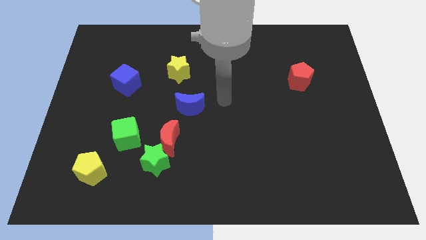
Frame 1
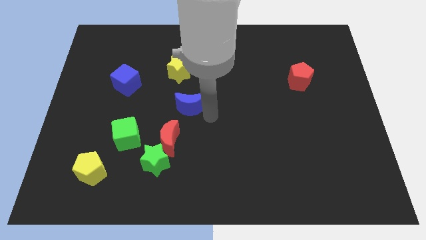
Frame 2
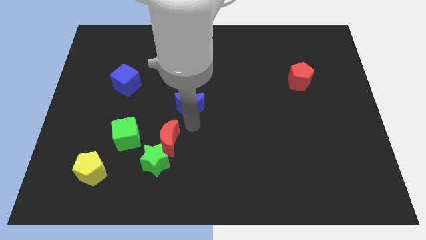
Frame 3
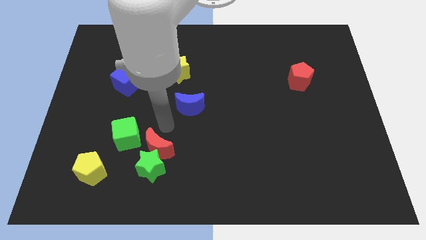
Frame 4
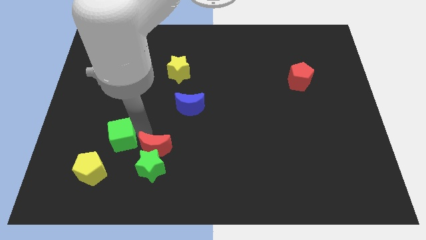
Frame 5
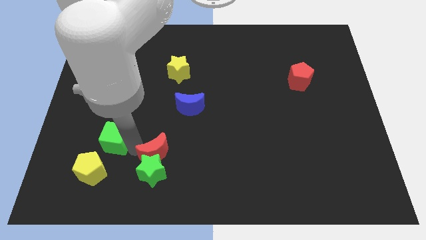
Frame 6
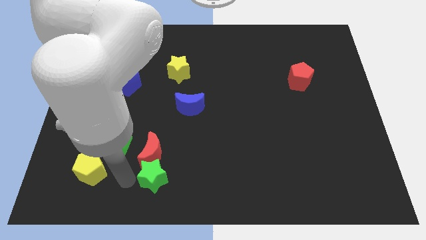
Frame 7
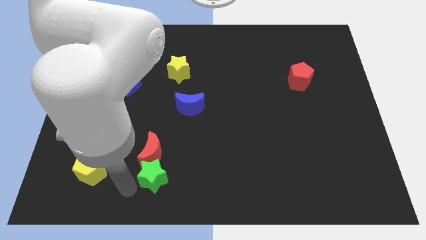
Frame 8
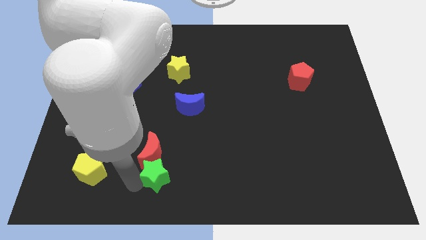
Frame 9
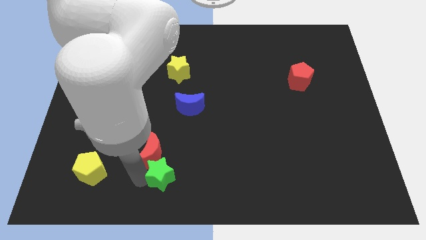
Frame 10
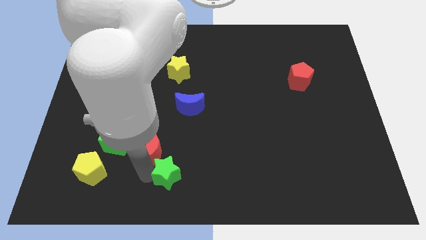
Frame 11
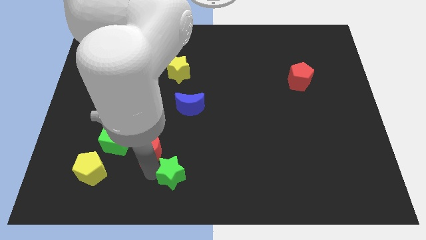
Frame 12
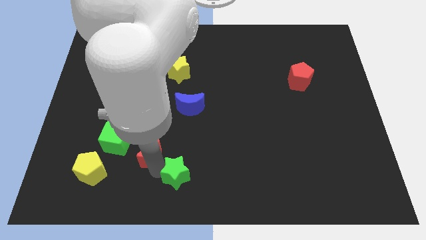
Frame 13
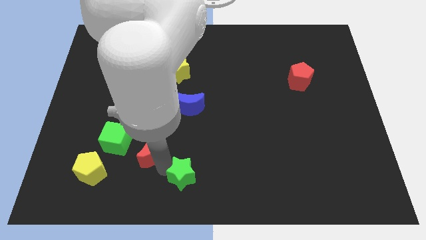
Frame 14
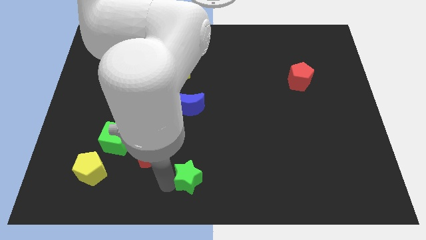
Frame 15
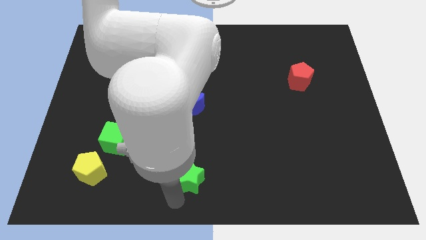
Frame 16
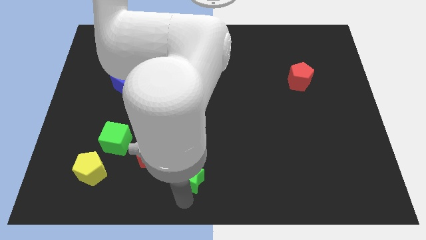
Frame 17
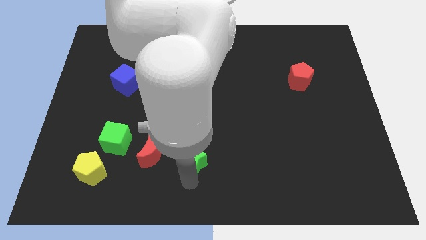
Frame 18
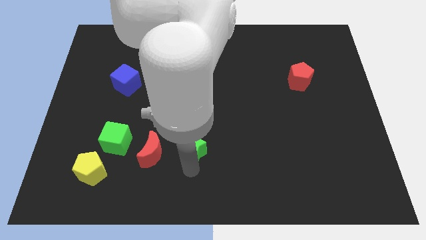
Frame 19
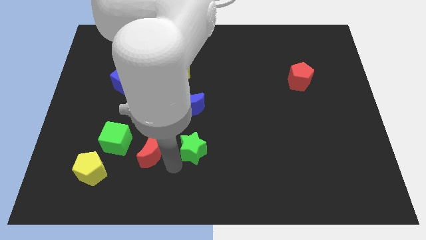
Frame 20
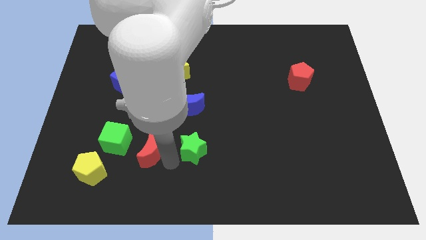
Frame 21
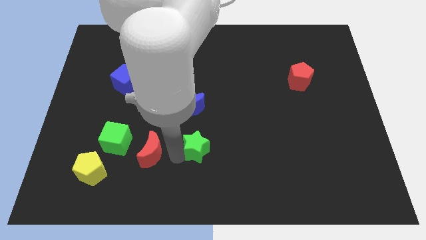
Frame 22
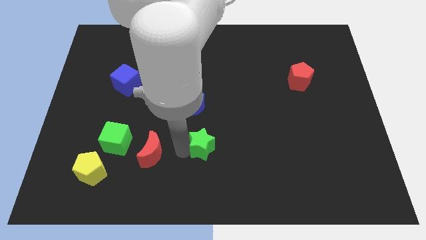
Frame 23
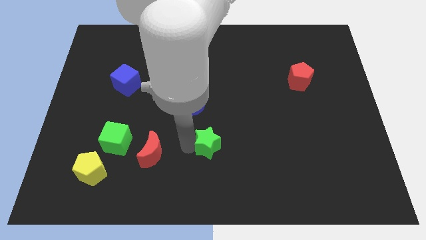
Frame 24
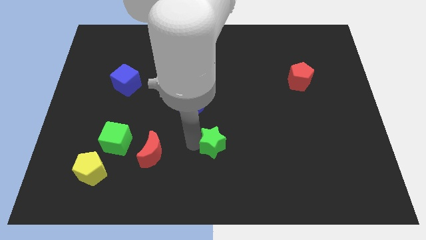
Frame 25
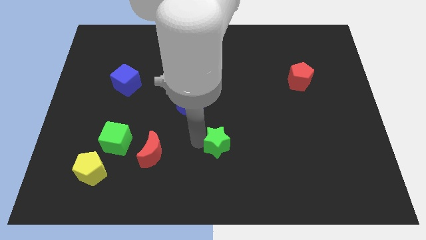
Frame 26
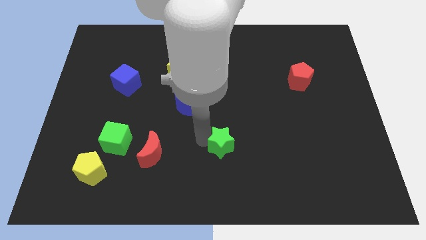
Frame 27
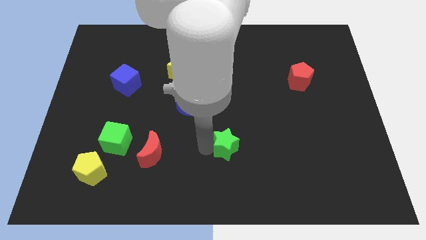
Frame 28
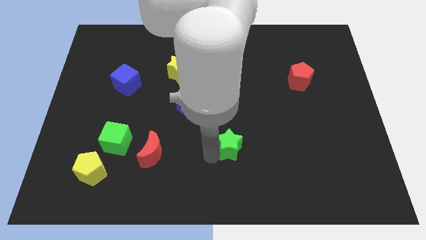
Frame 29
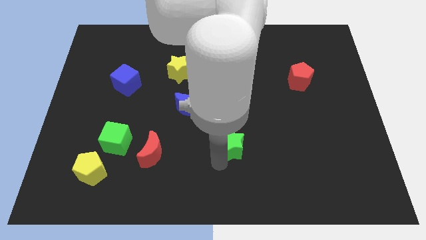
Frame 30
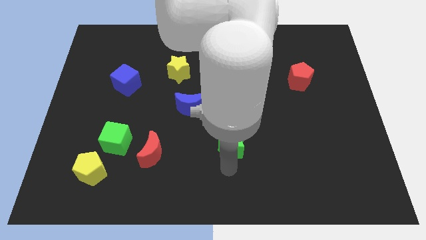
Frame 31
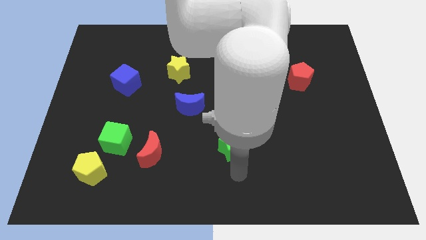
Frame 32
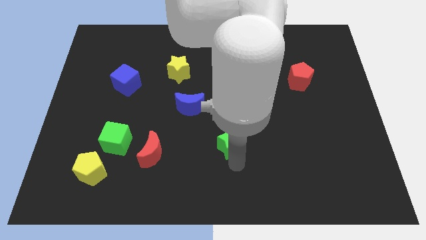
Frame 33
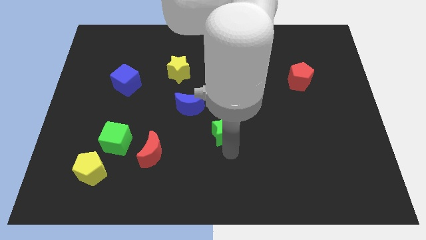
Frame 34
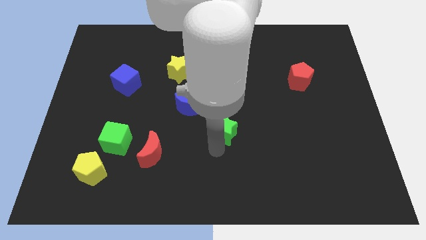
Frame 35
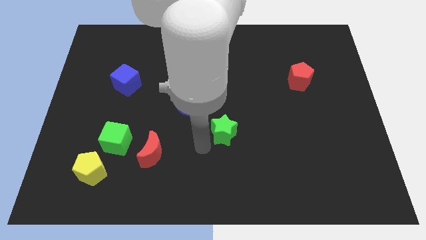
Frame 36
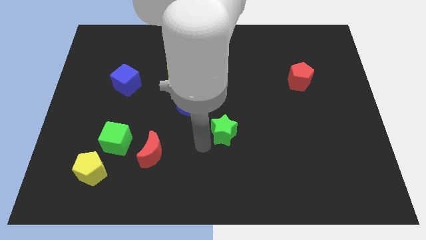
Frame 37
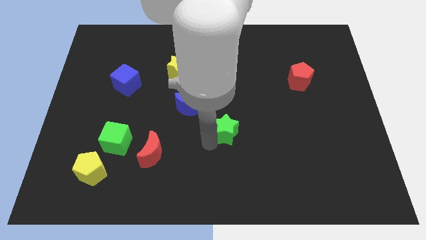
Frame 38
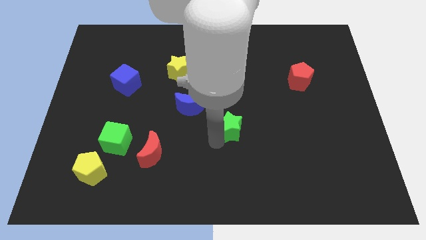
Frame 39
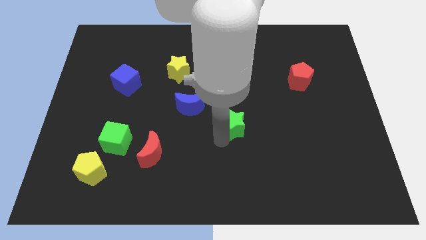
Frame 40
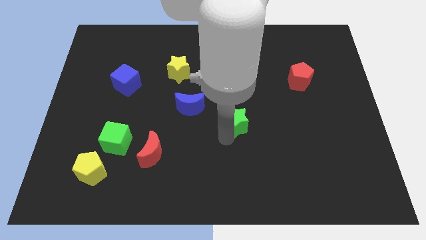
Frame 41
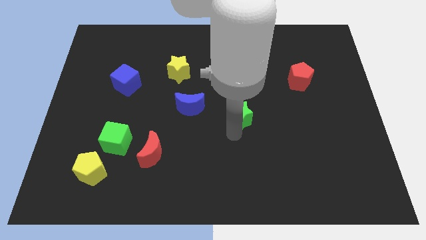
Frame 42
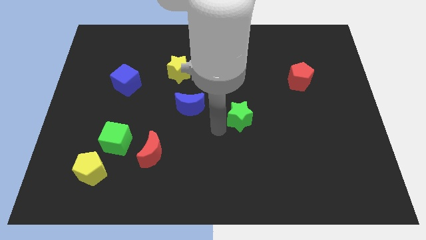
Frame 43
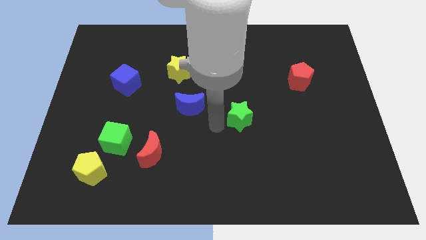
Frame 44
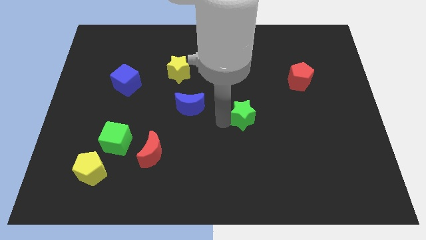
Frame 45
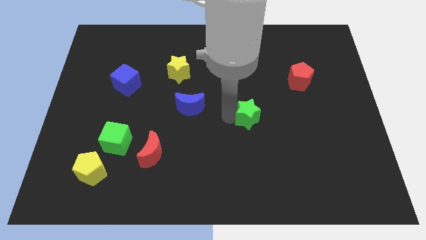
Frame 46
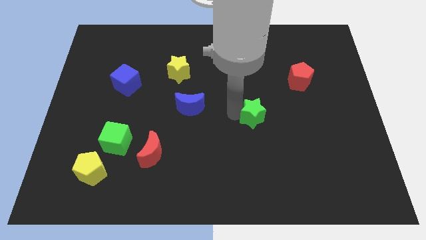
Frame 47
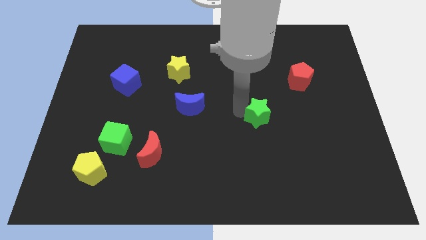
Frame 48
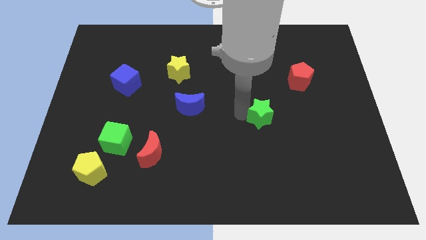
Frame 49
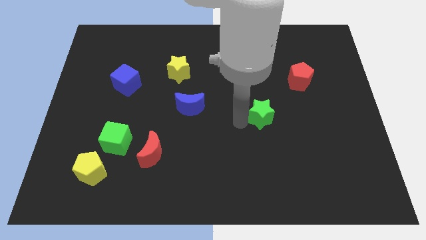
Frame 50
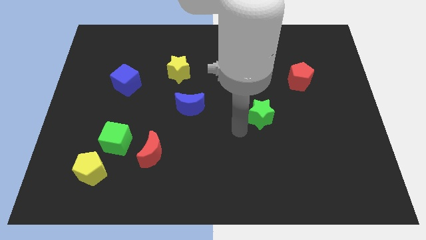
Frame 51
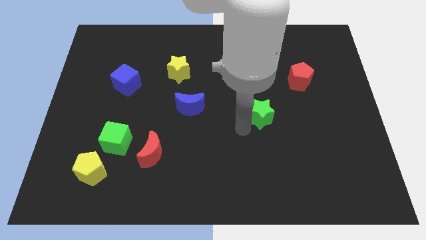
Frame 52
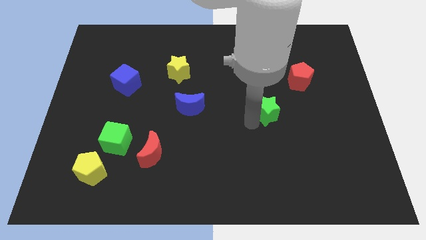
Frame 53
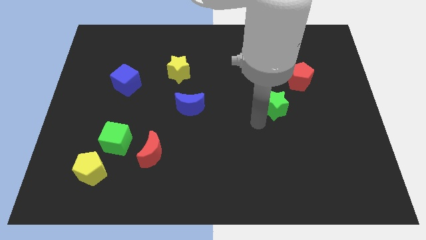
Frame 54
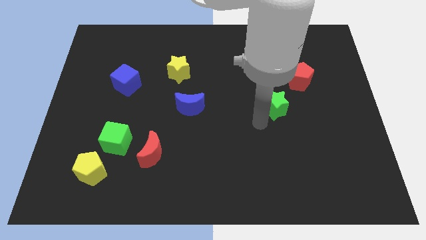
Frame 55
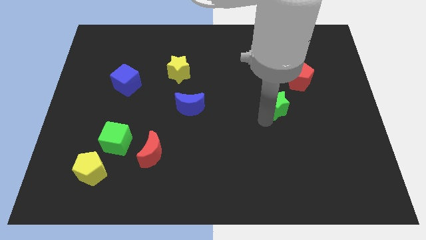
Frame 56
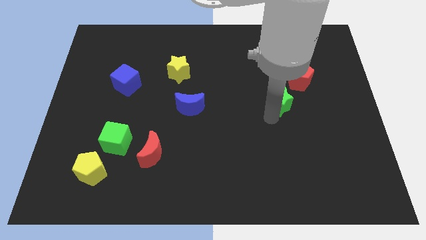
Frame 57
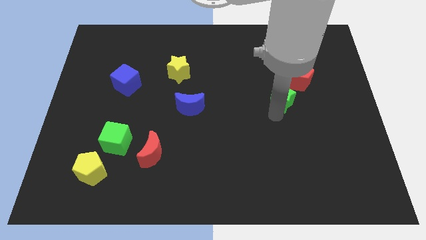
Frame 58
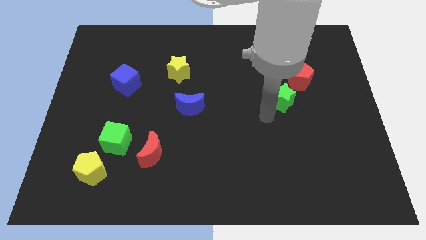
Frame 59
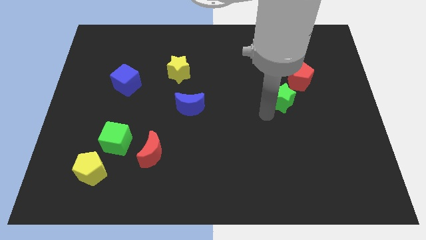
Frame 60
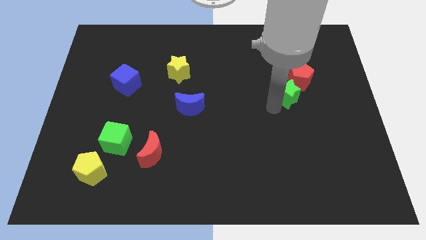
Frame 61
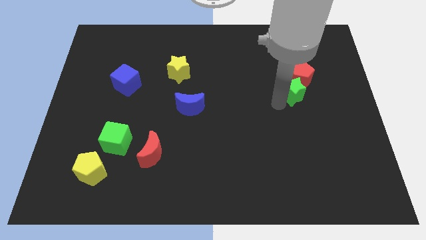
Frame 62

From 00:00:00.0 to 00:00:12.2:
push the green star next to the red pentagon
